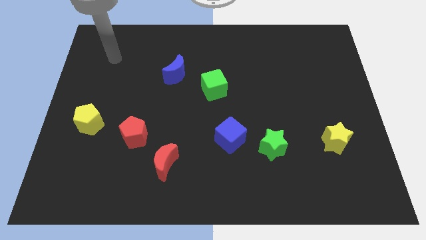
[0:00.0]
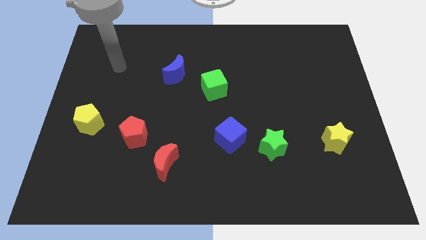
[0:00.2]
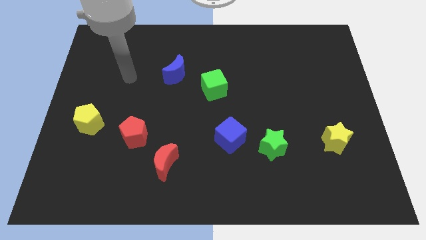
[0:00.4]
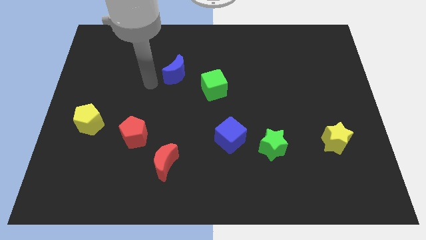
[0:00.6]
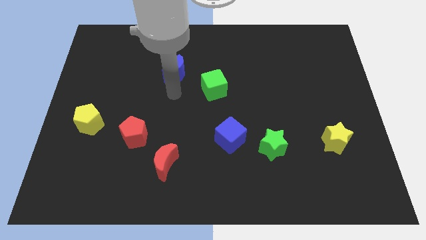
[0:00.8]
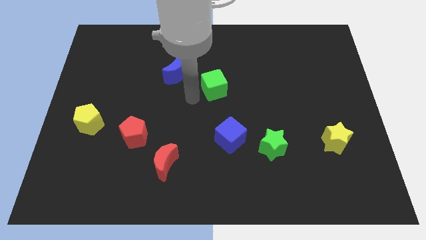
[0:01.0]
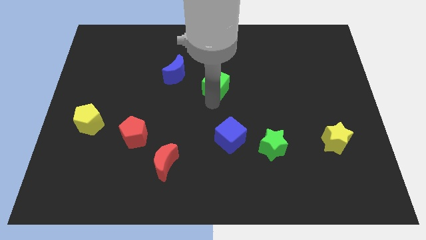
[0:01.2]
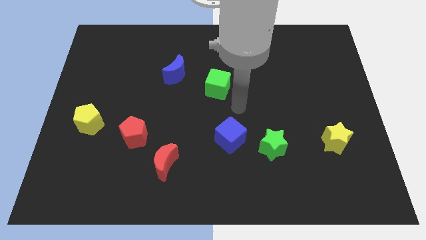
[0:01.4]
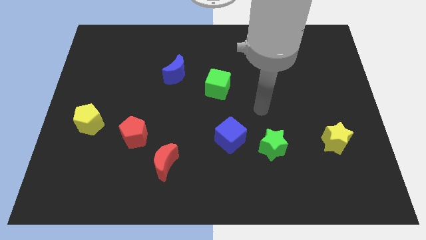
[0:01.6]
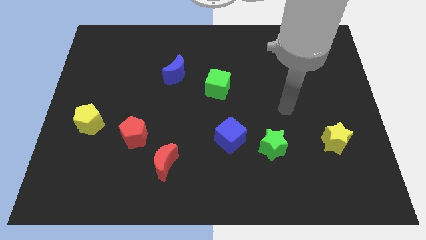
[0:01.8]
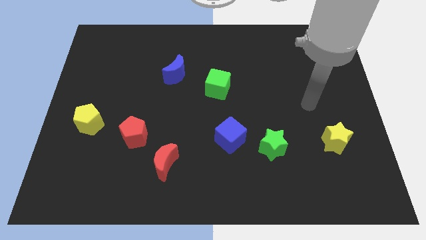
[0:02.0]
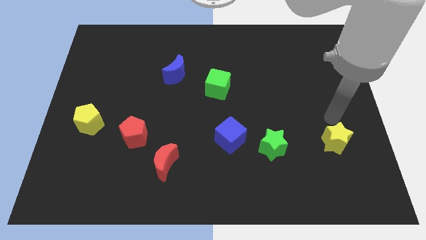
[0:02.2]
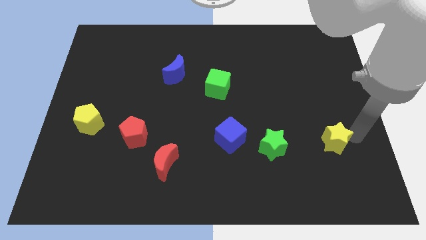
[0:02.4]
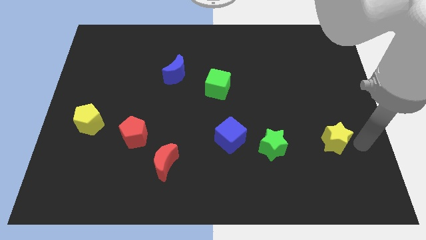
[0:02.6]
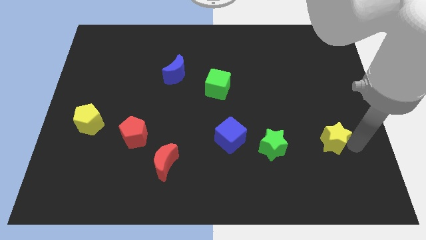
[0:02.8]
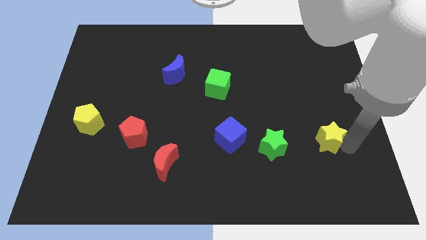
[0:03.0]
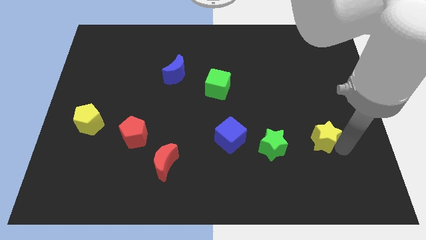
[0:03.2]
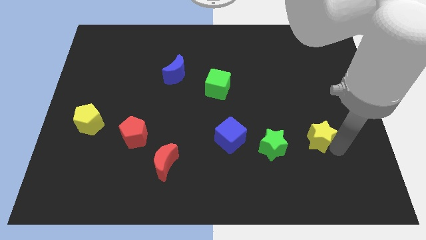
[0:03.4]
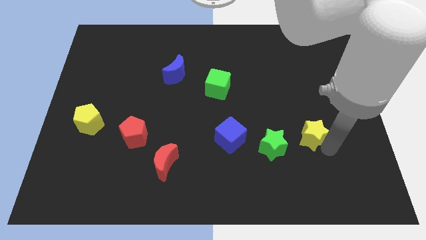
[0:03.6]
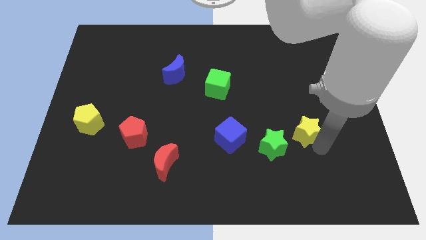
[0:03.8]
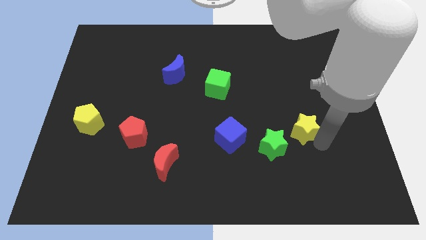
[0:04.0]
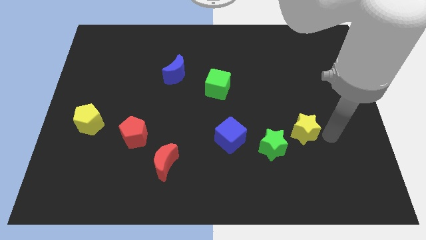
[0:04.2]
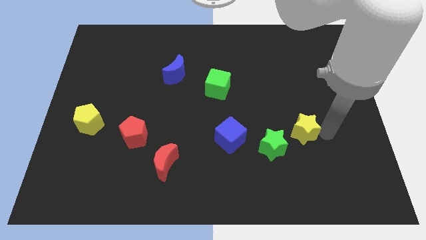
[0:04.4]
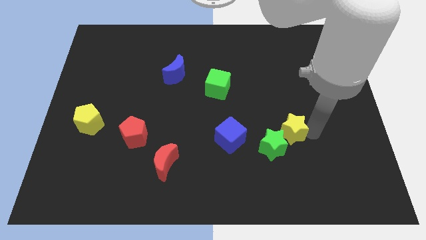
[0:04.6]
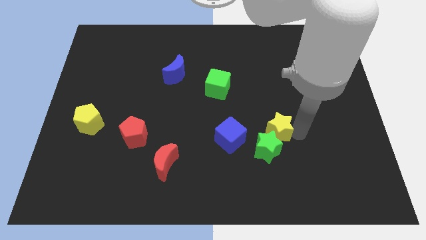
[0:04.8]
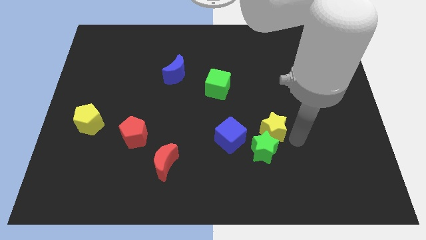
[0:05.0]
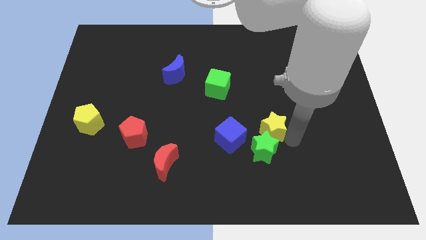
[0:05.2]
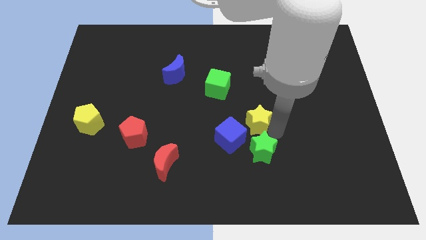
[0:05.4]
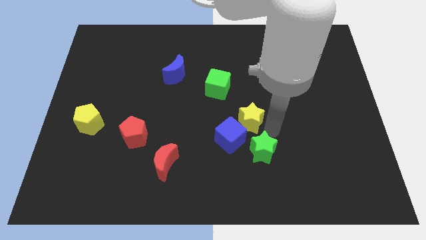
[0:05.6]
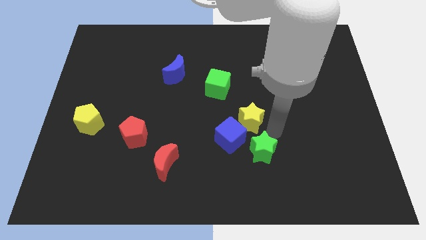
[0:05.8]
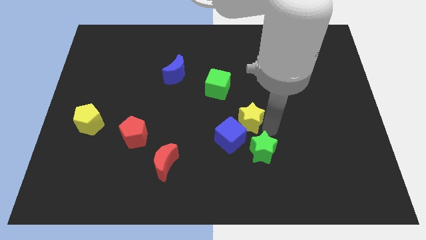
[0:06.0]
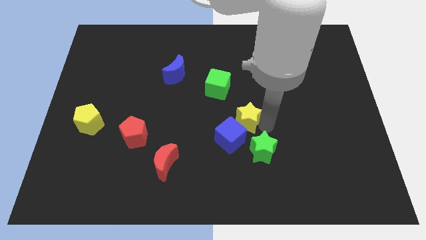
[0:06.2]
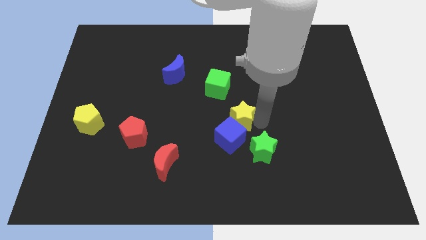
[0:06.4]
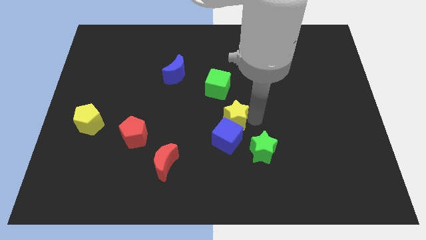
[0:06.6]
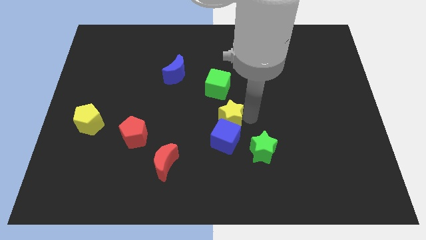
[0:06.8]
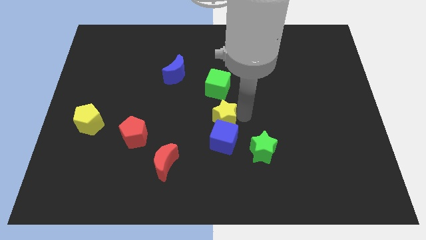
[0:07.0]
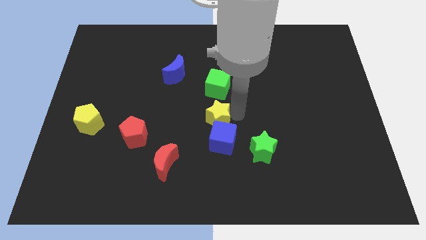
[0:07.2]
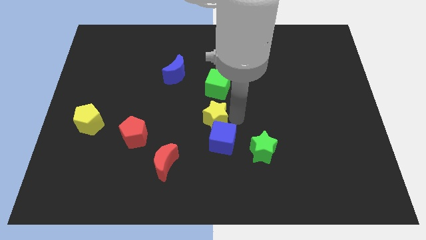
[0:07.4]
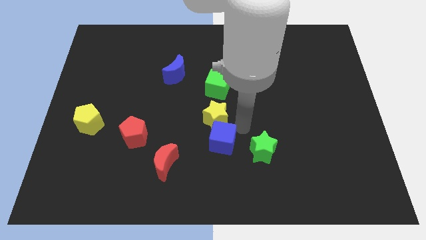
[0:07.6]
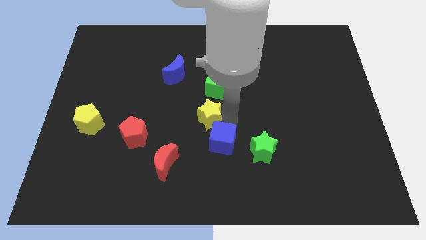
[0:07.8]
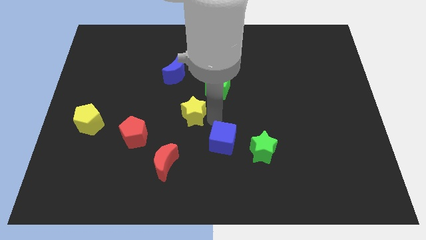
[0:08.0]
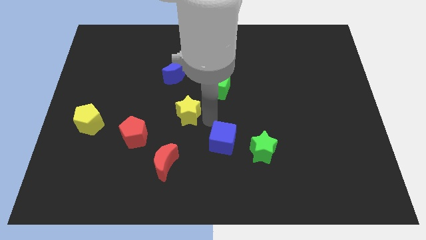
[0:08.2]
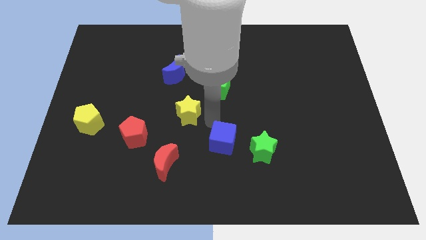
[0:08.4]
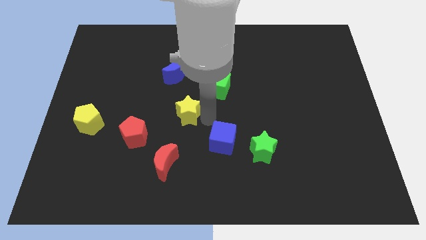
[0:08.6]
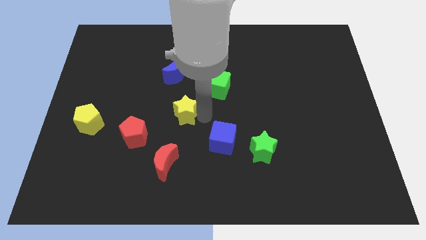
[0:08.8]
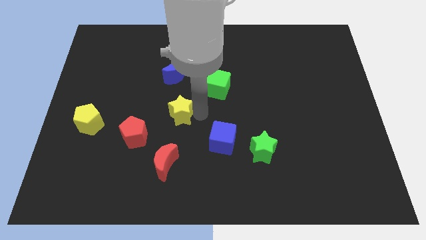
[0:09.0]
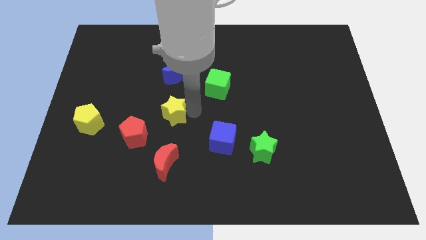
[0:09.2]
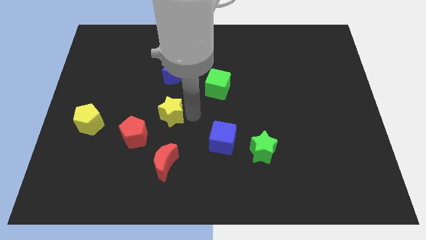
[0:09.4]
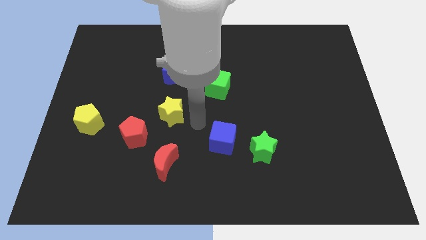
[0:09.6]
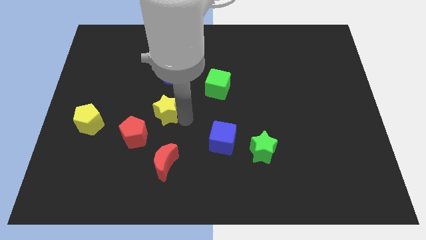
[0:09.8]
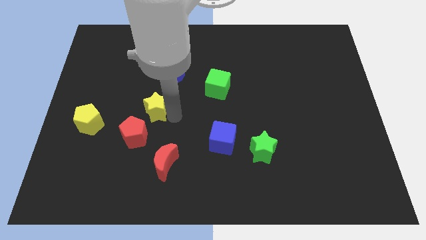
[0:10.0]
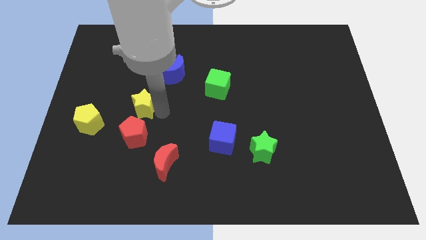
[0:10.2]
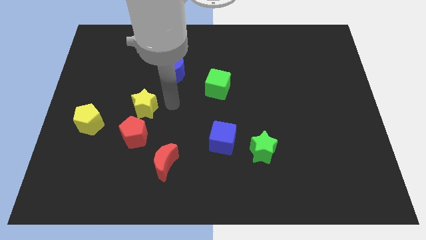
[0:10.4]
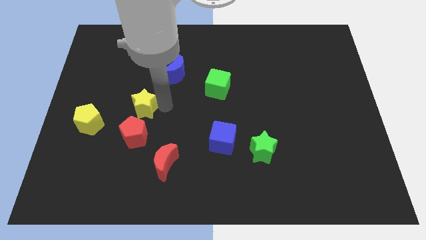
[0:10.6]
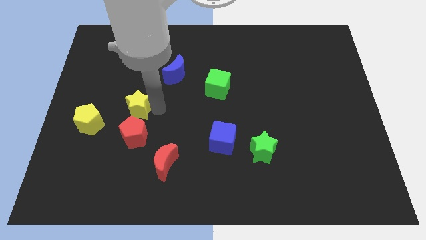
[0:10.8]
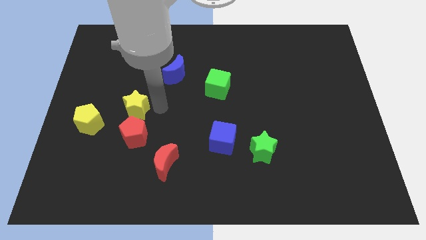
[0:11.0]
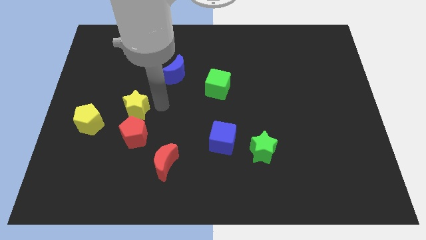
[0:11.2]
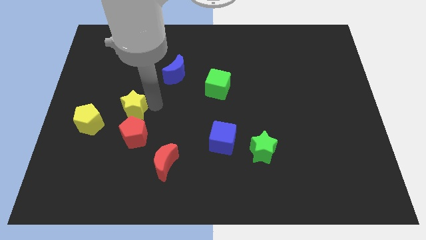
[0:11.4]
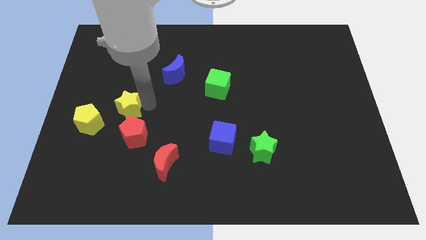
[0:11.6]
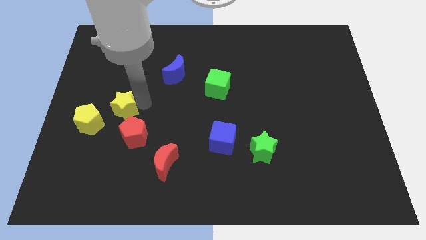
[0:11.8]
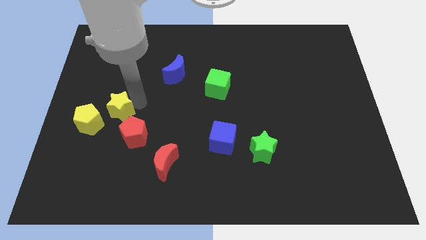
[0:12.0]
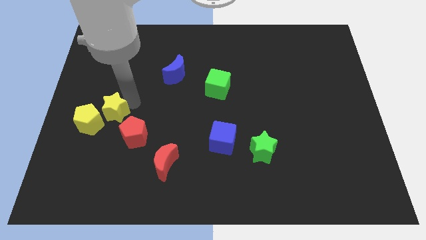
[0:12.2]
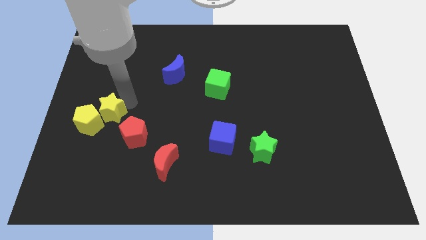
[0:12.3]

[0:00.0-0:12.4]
push the yellow star close to the yellow pentagon
